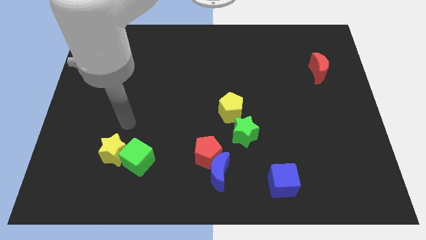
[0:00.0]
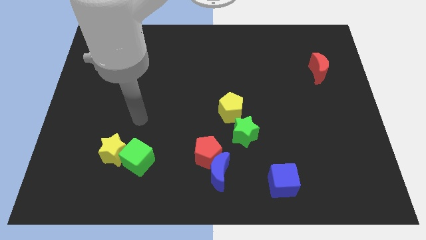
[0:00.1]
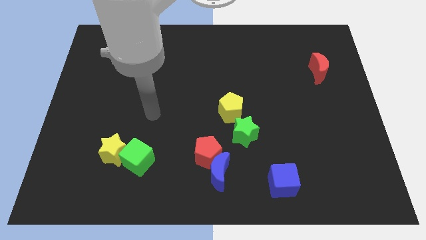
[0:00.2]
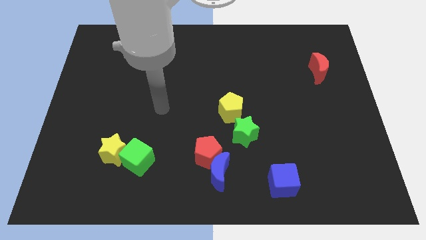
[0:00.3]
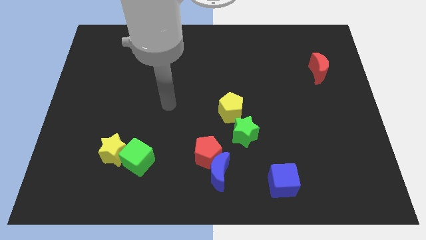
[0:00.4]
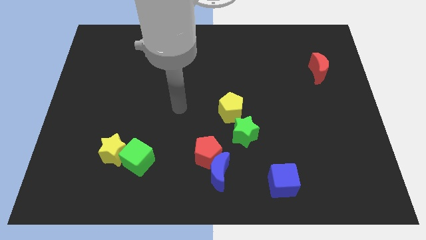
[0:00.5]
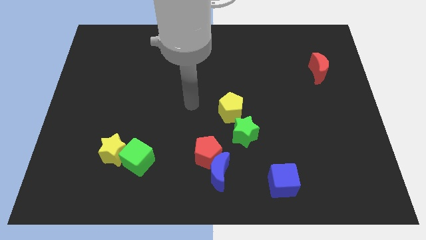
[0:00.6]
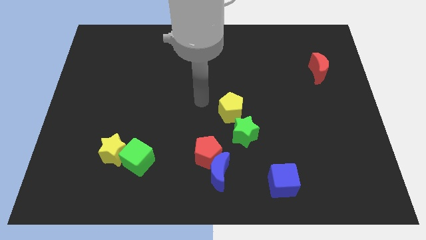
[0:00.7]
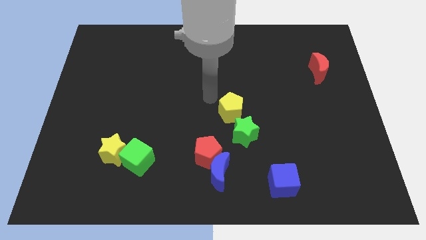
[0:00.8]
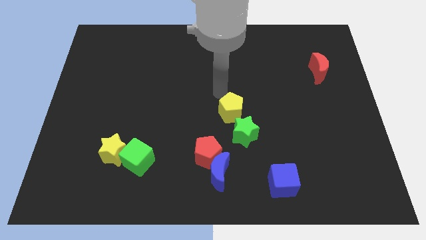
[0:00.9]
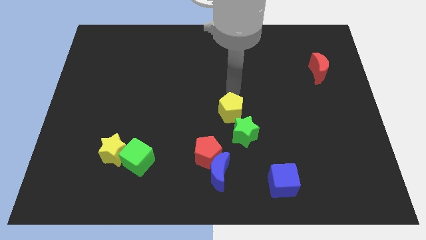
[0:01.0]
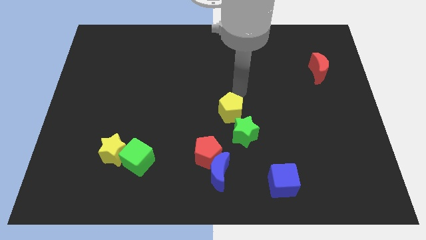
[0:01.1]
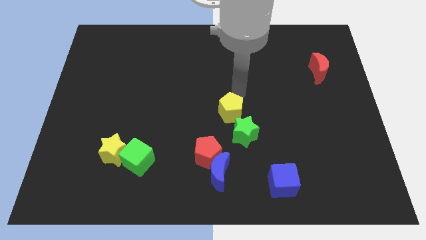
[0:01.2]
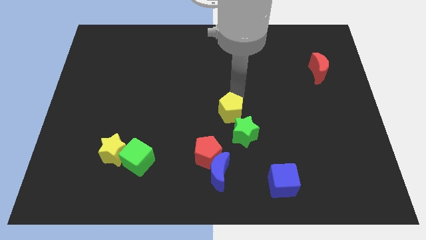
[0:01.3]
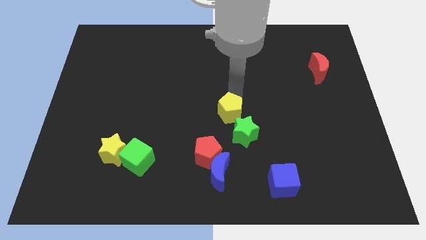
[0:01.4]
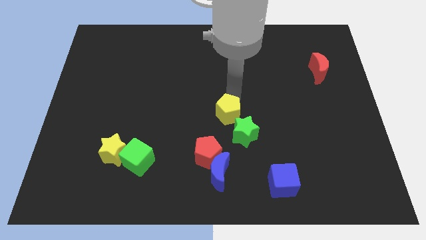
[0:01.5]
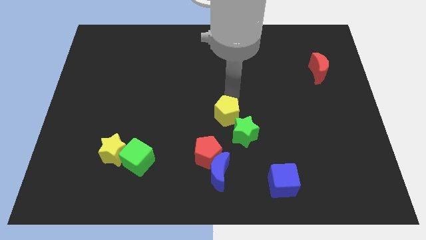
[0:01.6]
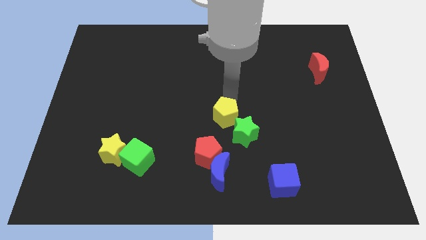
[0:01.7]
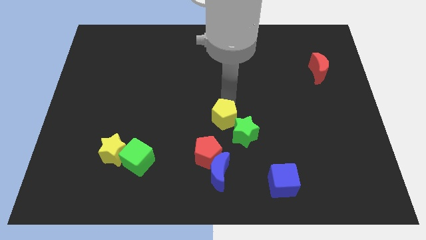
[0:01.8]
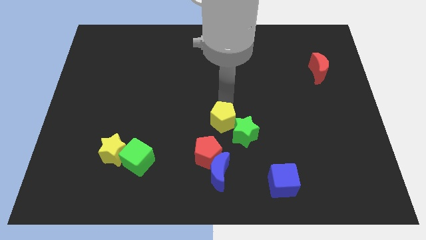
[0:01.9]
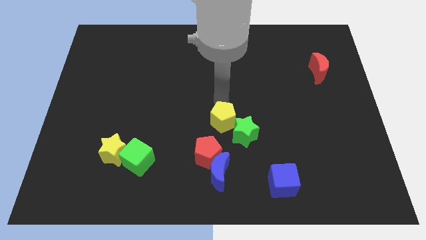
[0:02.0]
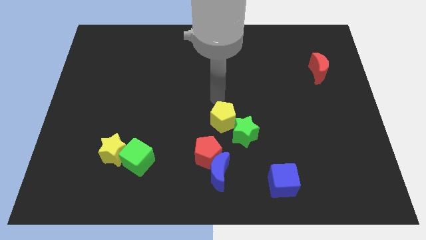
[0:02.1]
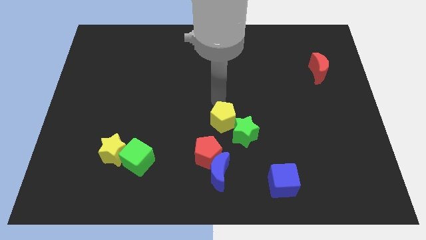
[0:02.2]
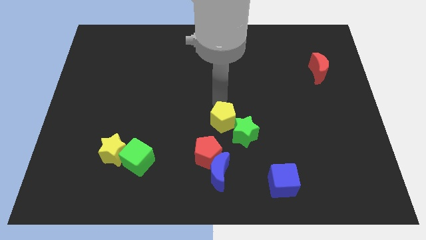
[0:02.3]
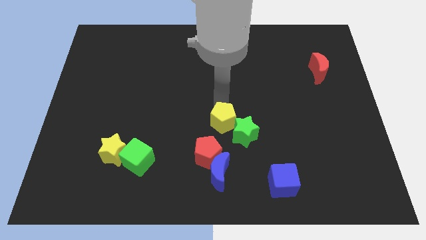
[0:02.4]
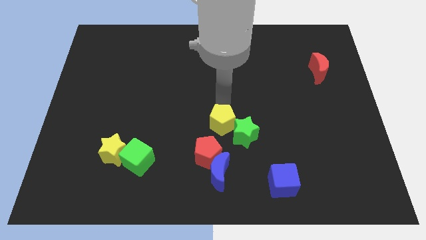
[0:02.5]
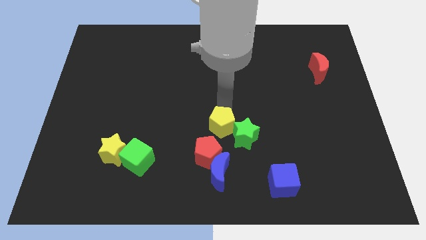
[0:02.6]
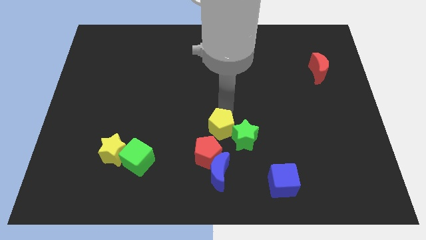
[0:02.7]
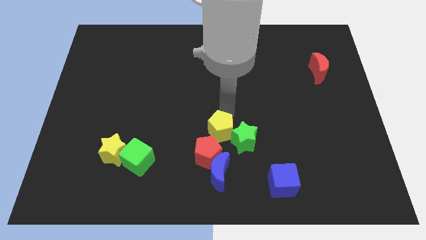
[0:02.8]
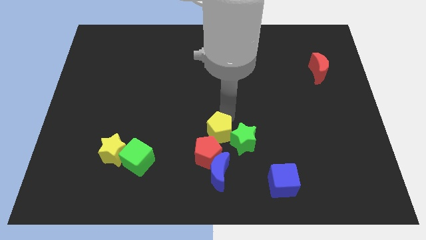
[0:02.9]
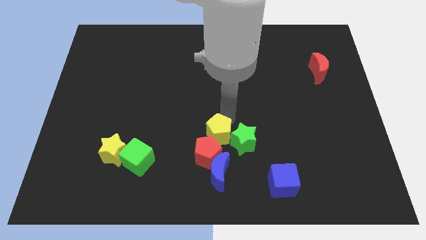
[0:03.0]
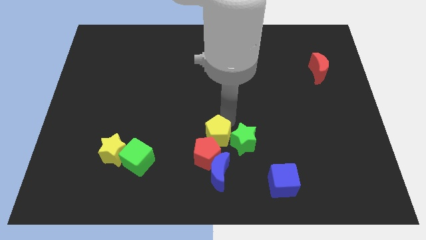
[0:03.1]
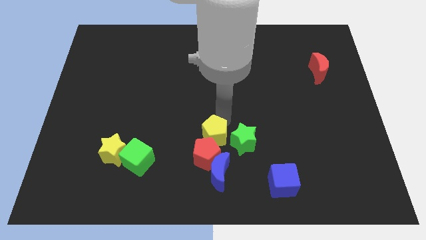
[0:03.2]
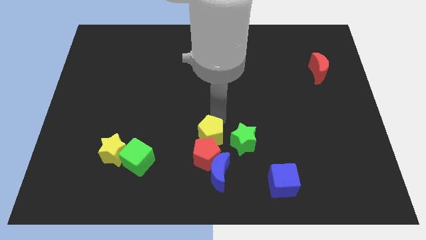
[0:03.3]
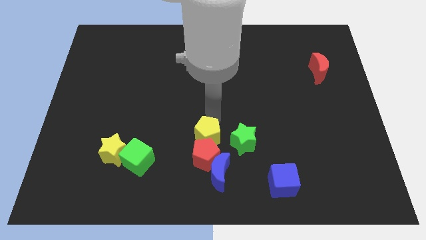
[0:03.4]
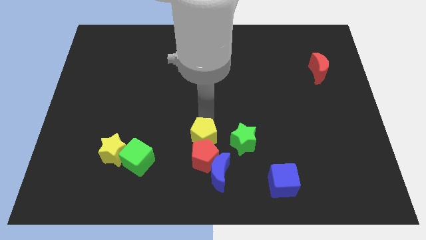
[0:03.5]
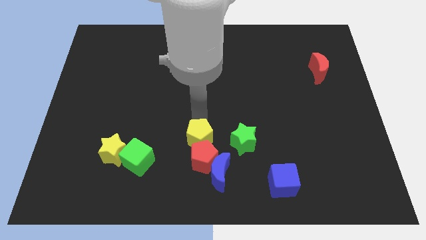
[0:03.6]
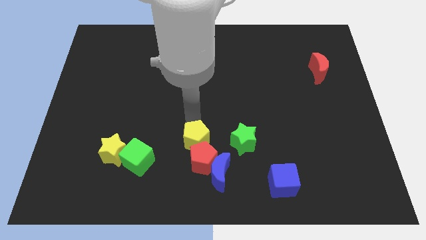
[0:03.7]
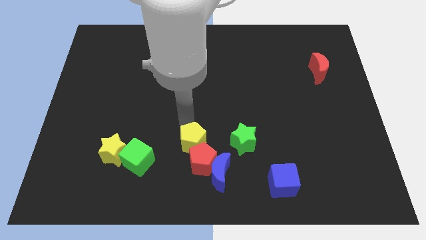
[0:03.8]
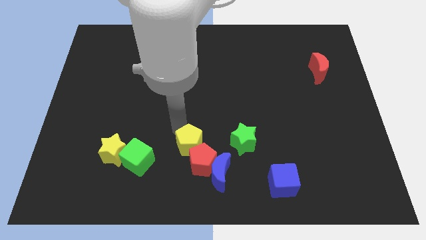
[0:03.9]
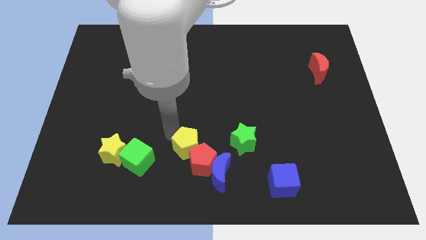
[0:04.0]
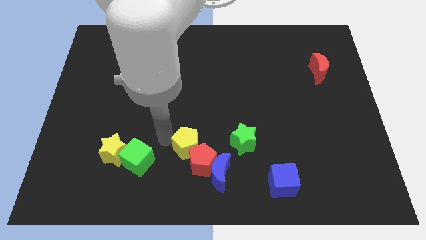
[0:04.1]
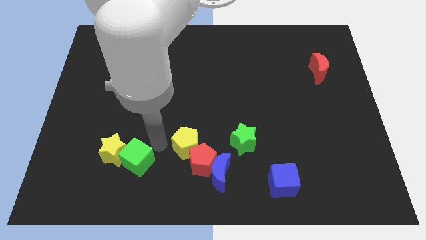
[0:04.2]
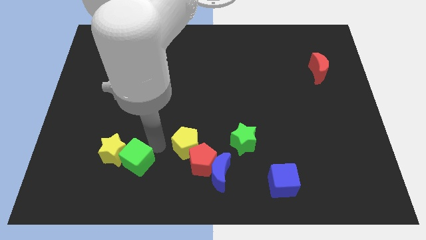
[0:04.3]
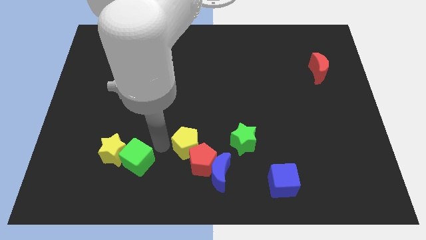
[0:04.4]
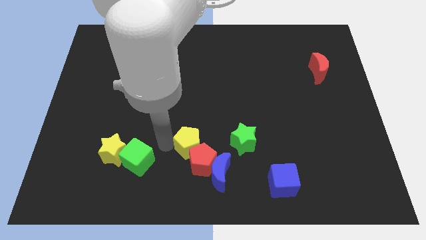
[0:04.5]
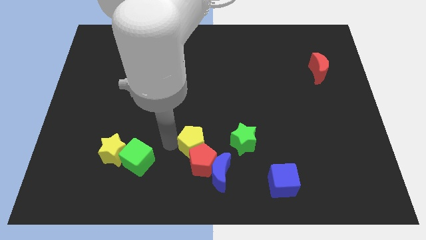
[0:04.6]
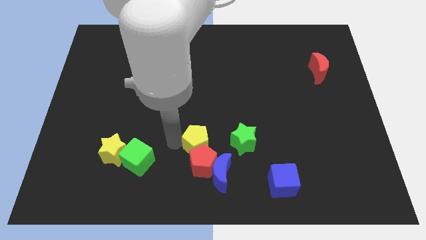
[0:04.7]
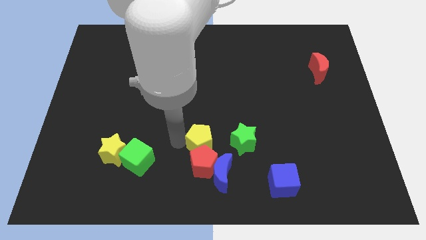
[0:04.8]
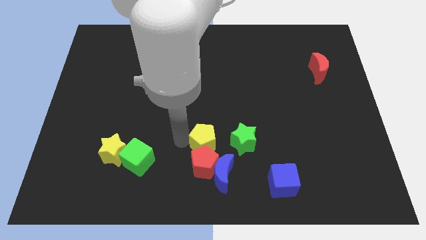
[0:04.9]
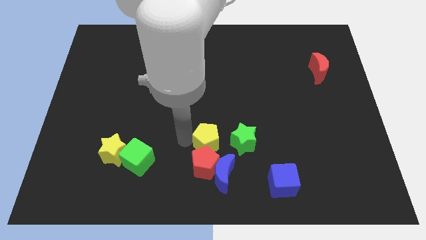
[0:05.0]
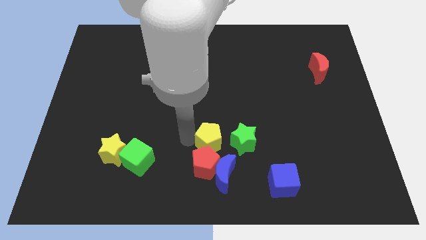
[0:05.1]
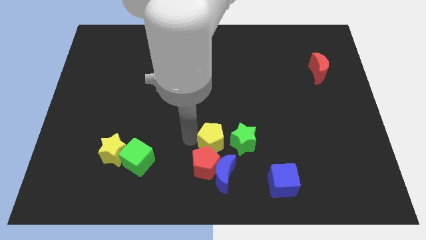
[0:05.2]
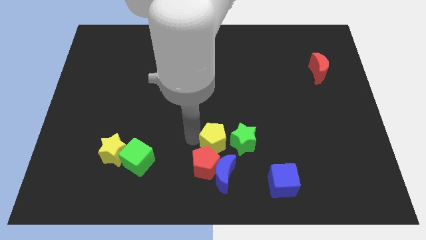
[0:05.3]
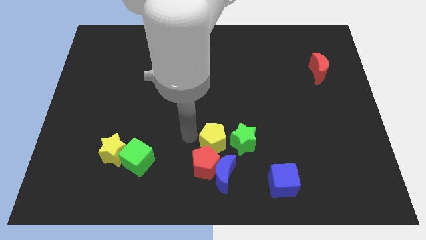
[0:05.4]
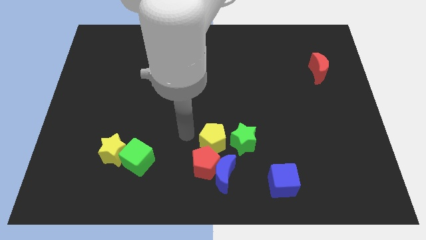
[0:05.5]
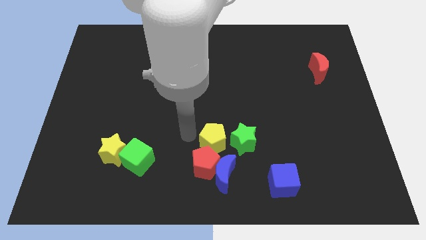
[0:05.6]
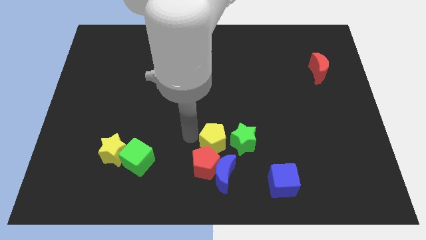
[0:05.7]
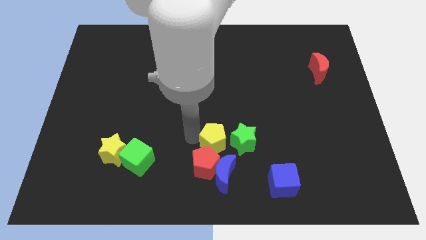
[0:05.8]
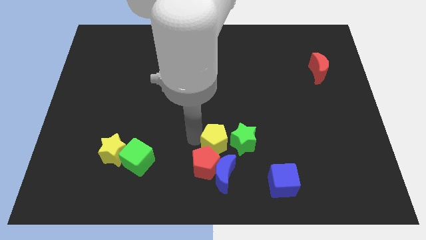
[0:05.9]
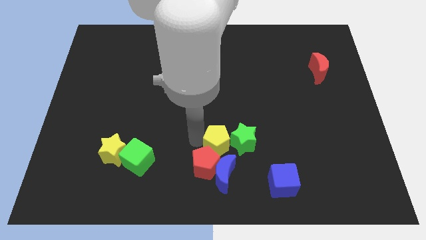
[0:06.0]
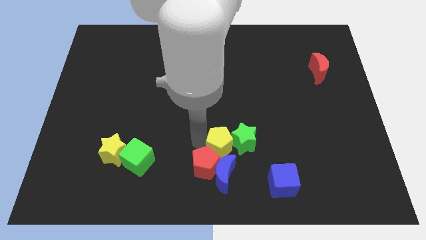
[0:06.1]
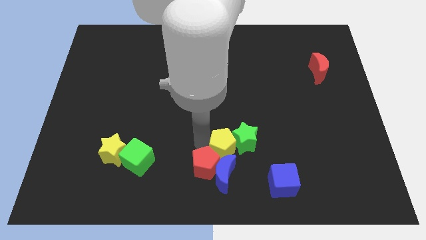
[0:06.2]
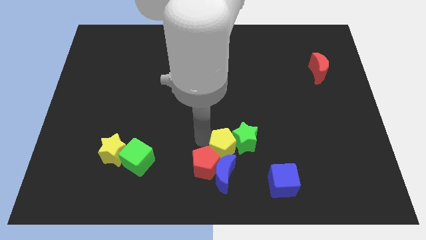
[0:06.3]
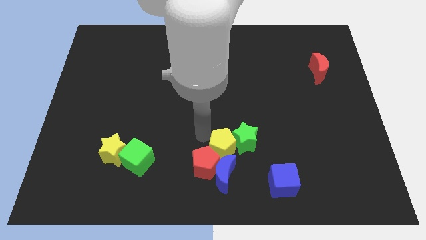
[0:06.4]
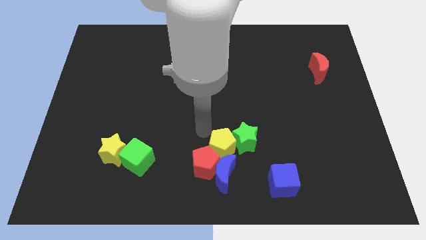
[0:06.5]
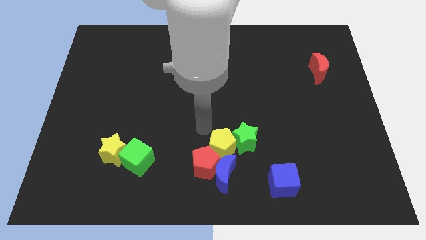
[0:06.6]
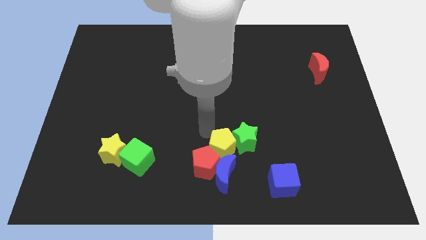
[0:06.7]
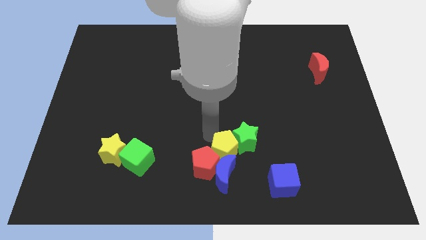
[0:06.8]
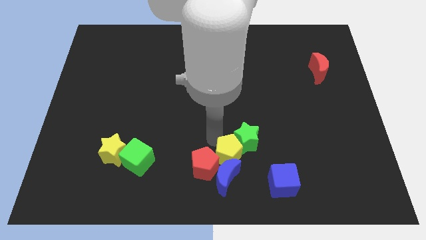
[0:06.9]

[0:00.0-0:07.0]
slide the yellow pentagon to the bottom side
